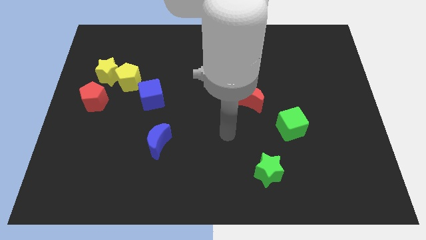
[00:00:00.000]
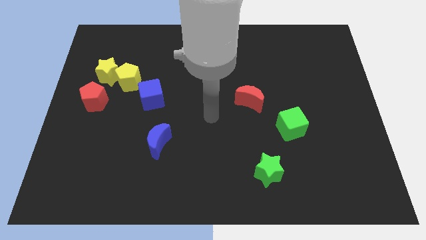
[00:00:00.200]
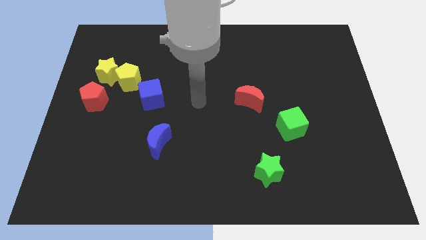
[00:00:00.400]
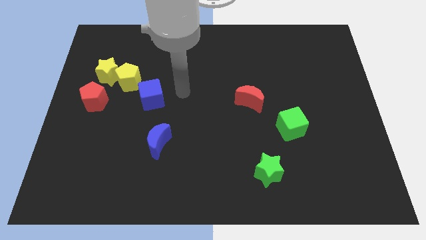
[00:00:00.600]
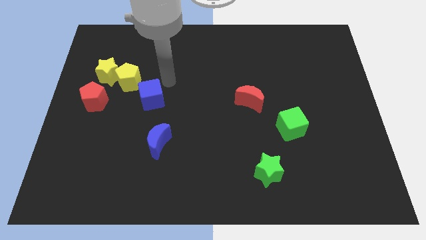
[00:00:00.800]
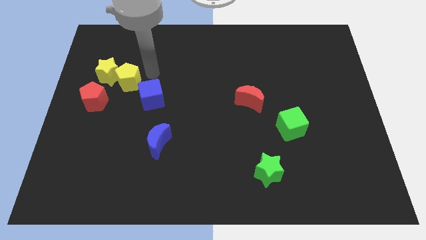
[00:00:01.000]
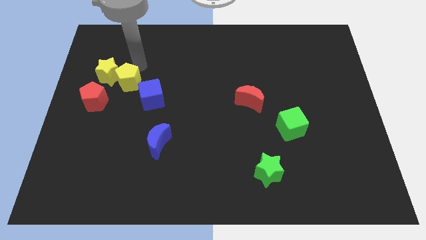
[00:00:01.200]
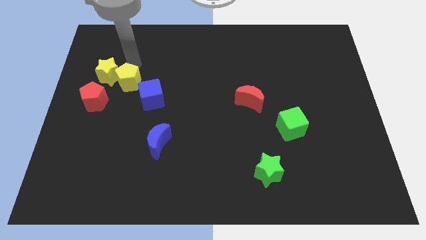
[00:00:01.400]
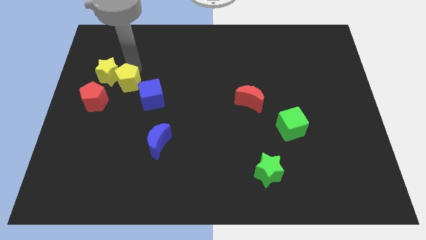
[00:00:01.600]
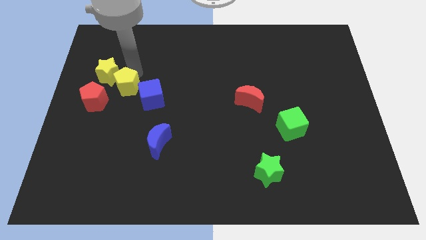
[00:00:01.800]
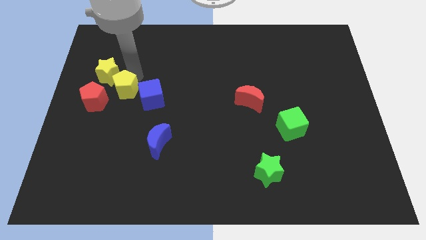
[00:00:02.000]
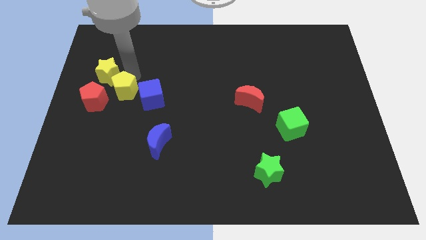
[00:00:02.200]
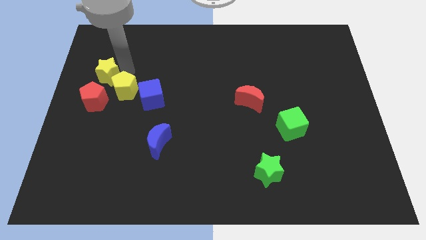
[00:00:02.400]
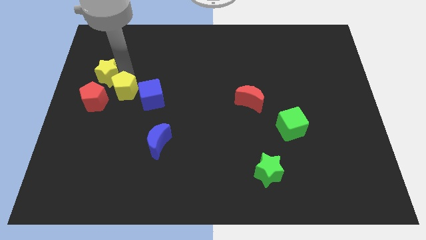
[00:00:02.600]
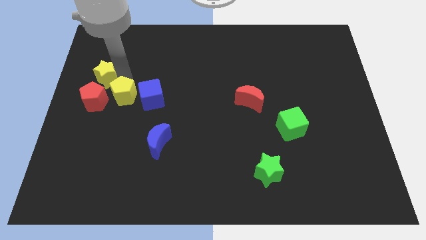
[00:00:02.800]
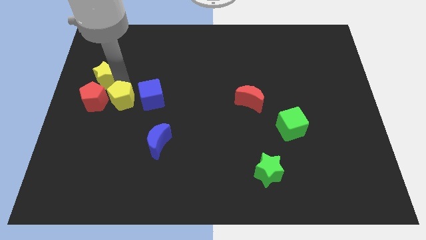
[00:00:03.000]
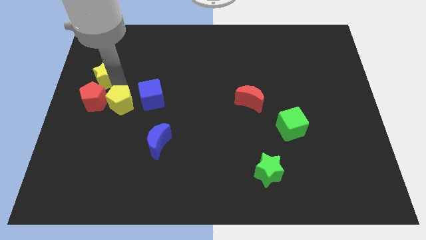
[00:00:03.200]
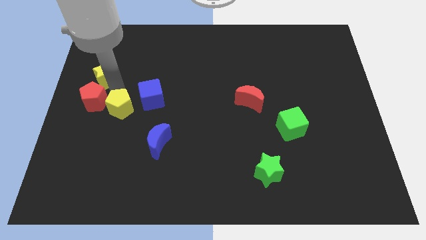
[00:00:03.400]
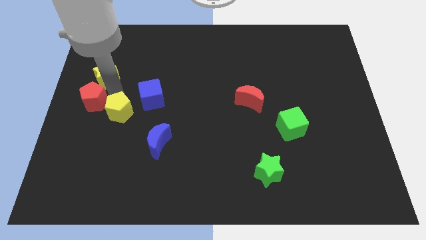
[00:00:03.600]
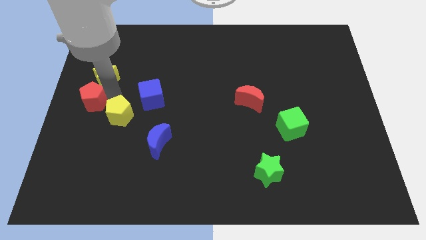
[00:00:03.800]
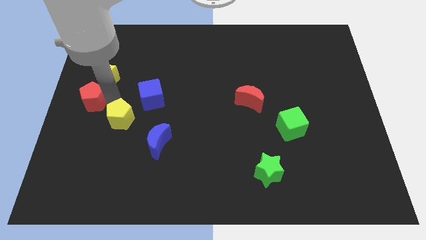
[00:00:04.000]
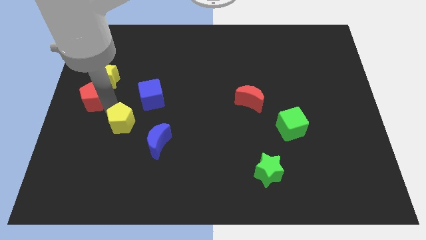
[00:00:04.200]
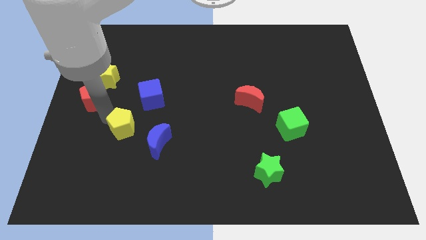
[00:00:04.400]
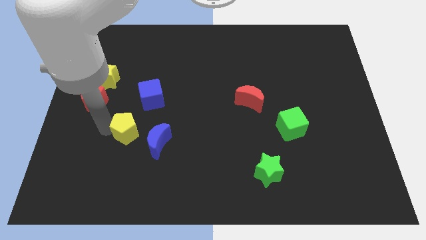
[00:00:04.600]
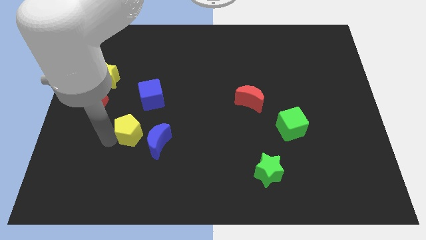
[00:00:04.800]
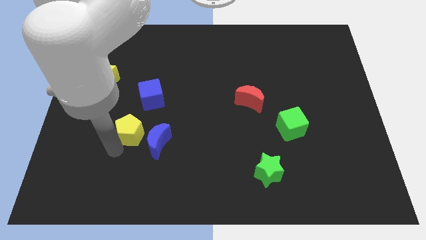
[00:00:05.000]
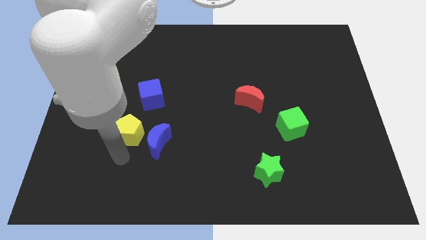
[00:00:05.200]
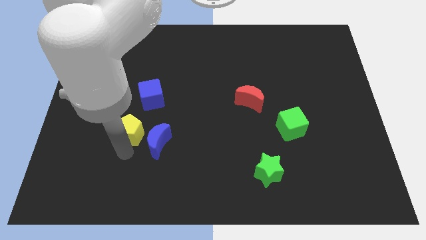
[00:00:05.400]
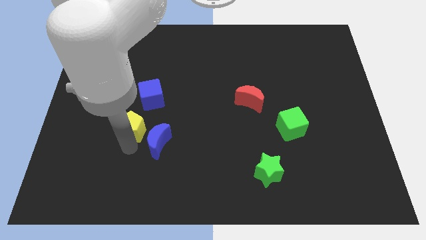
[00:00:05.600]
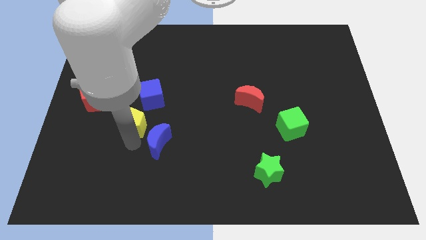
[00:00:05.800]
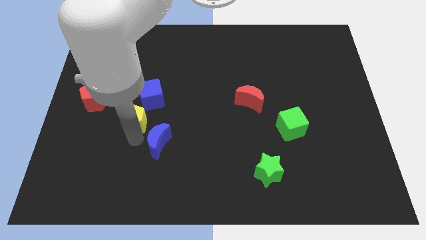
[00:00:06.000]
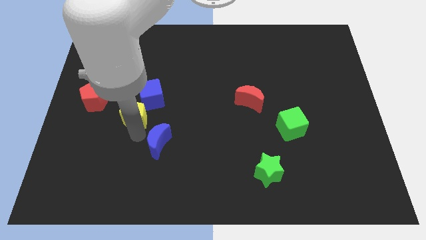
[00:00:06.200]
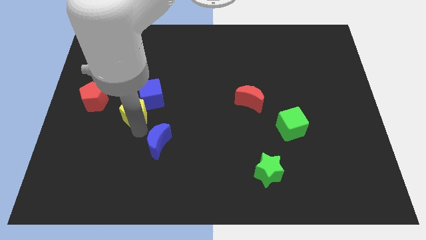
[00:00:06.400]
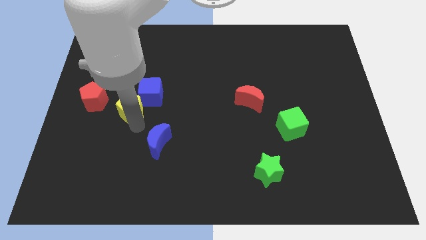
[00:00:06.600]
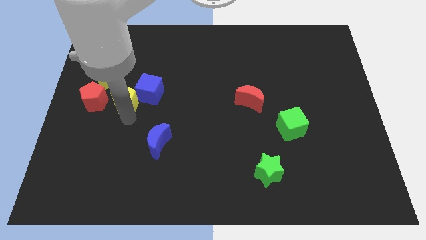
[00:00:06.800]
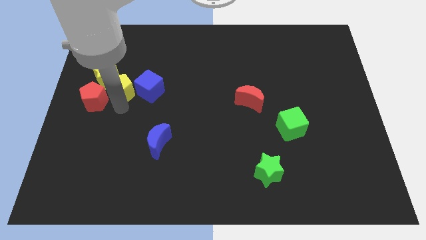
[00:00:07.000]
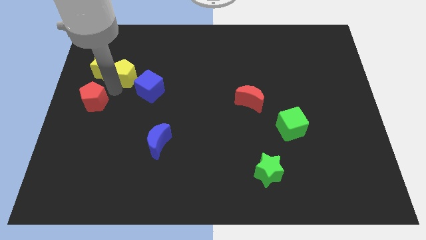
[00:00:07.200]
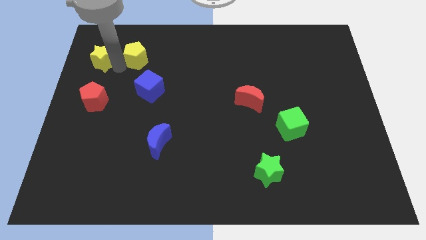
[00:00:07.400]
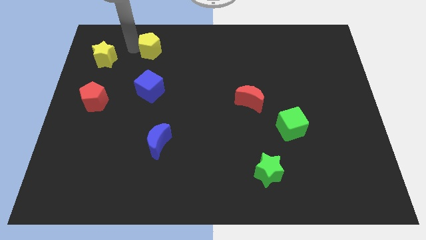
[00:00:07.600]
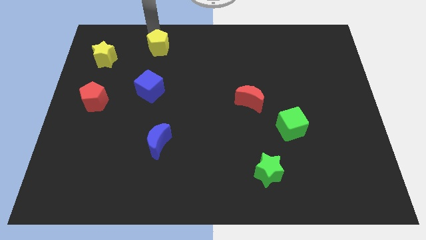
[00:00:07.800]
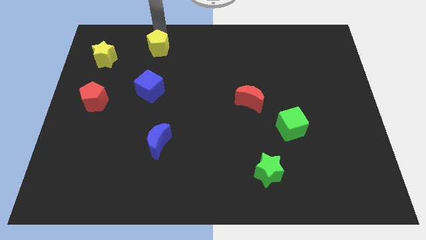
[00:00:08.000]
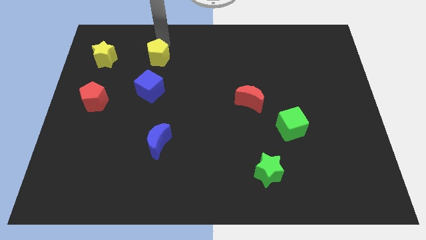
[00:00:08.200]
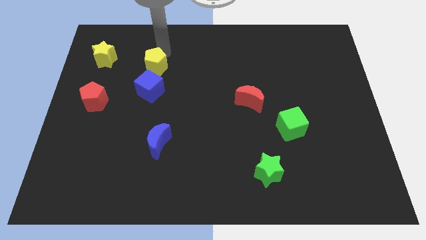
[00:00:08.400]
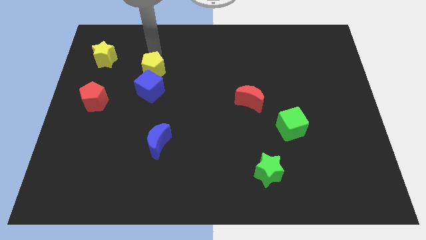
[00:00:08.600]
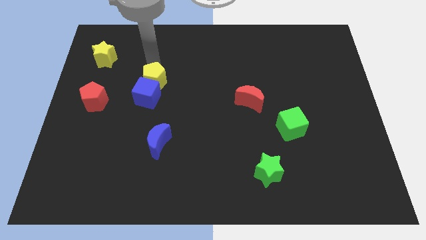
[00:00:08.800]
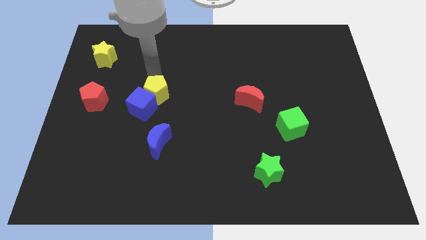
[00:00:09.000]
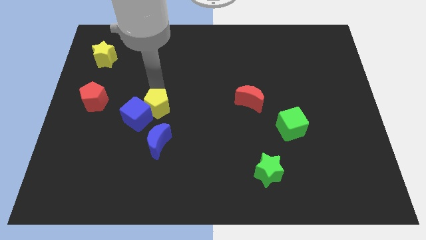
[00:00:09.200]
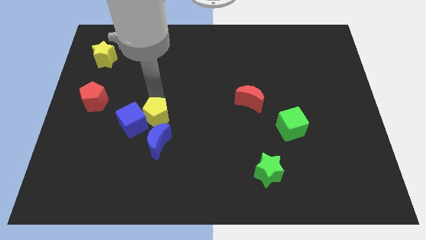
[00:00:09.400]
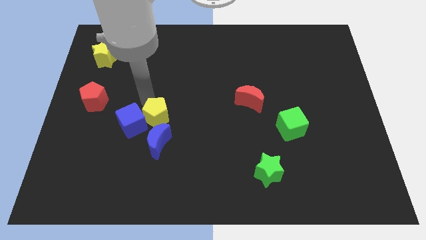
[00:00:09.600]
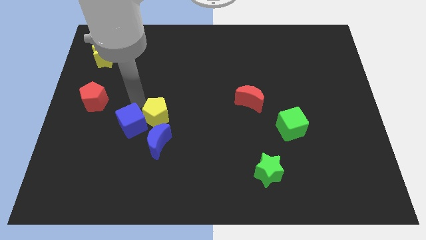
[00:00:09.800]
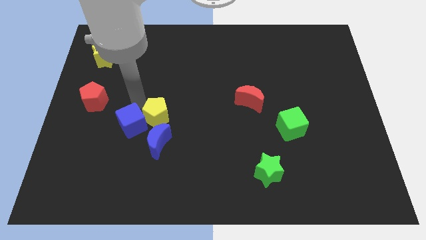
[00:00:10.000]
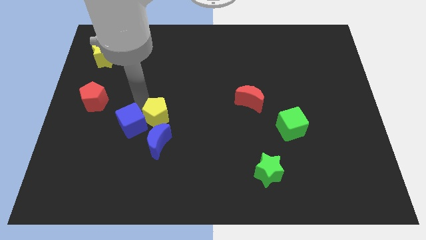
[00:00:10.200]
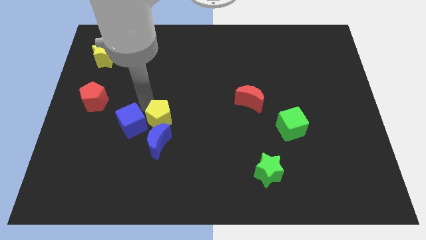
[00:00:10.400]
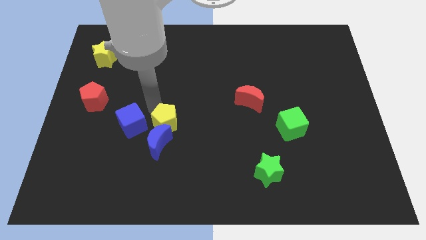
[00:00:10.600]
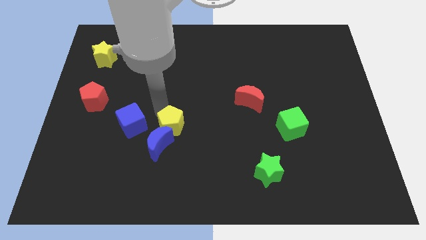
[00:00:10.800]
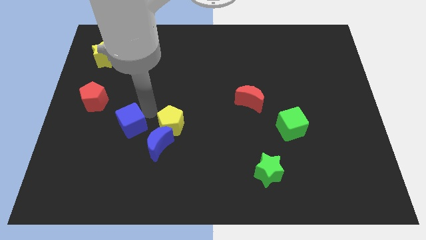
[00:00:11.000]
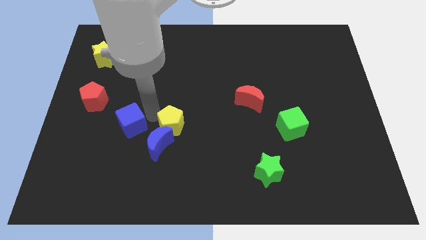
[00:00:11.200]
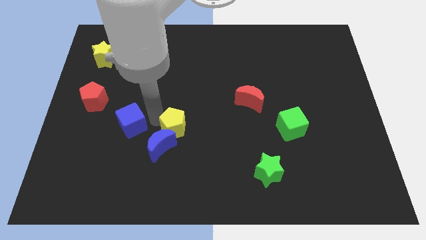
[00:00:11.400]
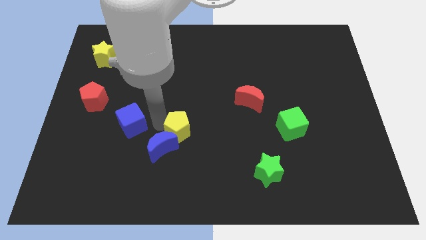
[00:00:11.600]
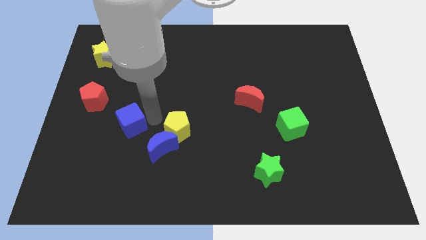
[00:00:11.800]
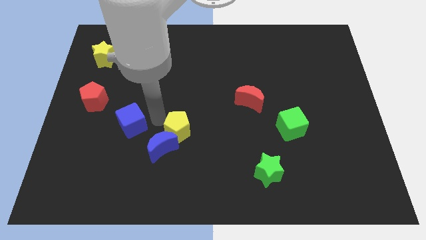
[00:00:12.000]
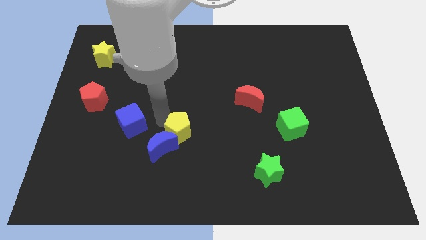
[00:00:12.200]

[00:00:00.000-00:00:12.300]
push the yellow pentagon down and right diagonally

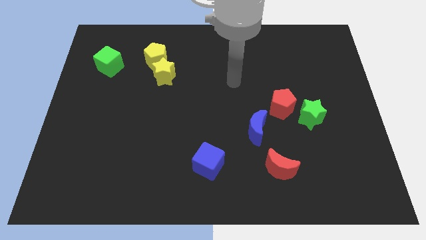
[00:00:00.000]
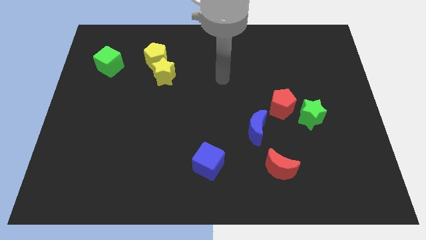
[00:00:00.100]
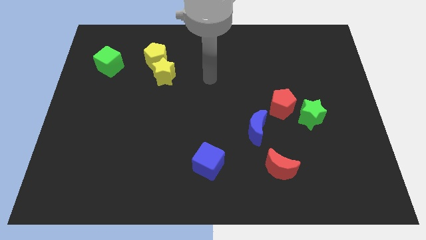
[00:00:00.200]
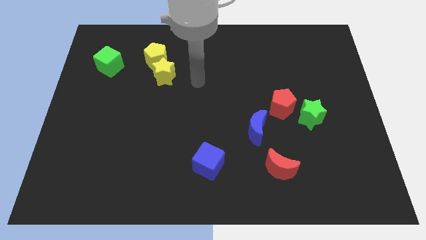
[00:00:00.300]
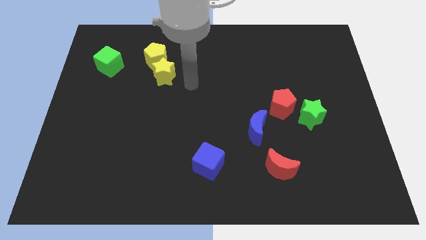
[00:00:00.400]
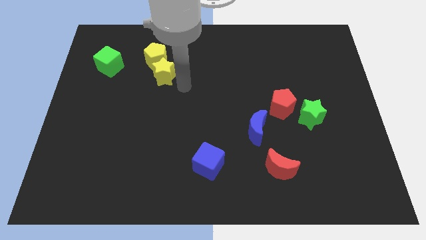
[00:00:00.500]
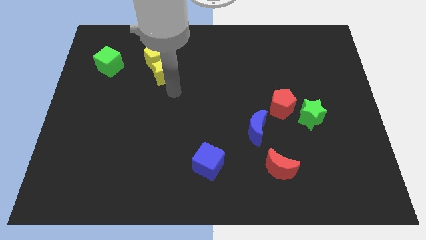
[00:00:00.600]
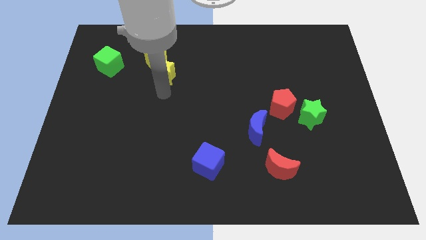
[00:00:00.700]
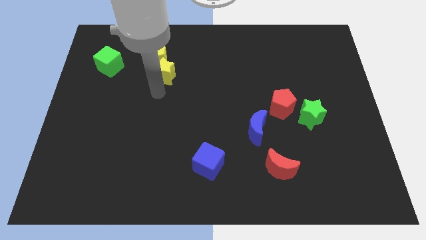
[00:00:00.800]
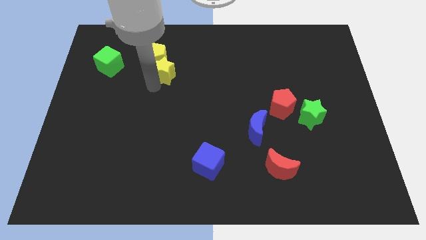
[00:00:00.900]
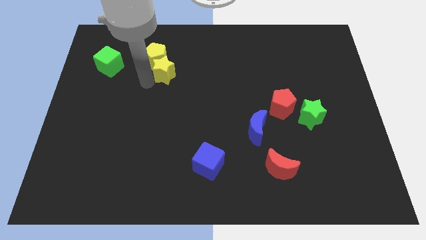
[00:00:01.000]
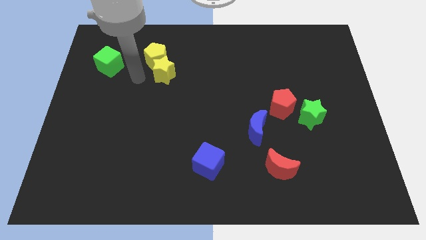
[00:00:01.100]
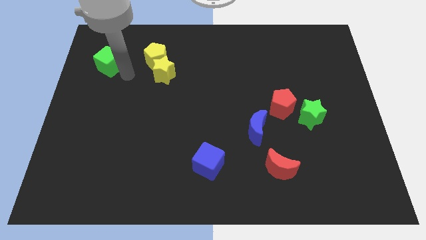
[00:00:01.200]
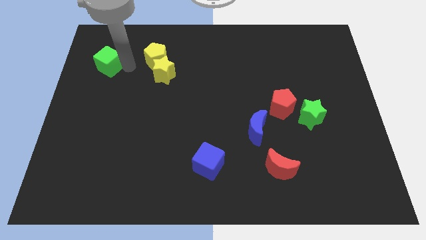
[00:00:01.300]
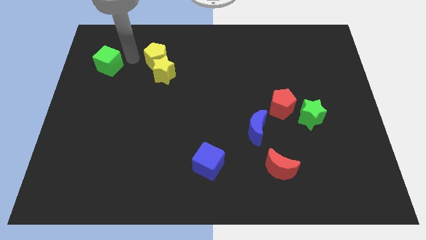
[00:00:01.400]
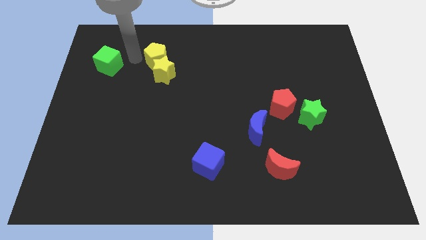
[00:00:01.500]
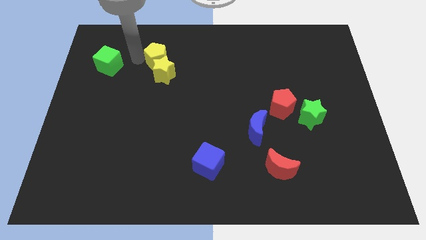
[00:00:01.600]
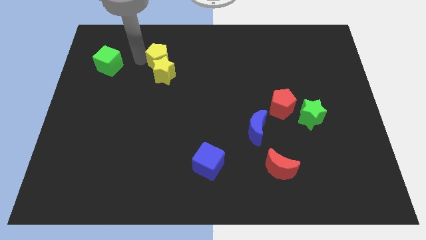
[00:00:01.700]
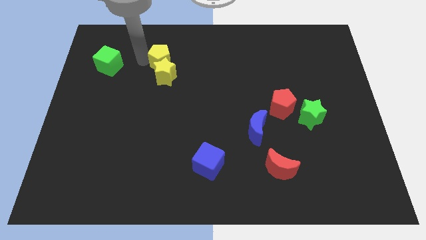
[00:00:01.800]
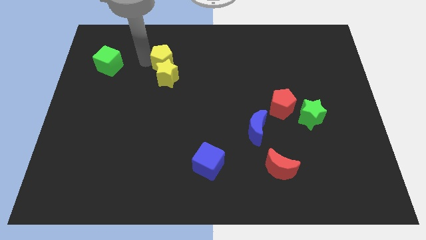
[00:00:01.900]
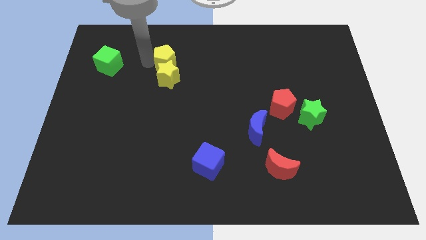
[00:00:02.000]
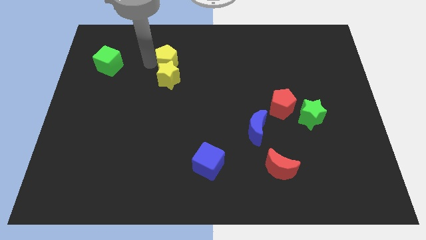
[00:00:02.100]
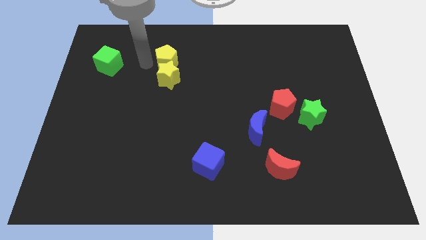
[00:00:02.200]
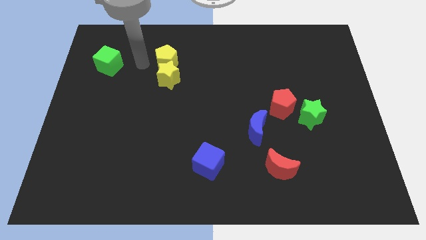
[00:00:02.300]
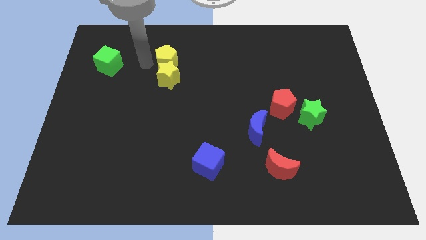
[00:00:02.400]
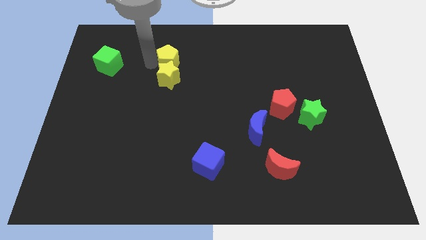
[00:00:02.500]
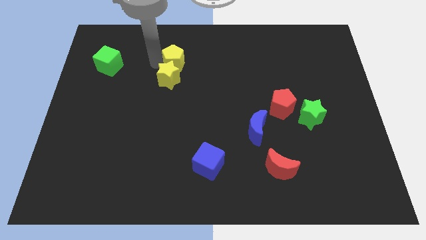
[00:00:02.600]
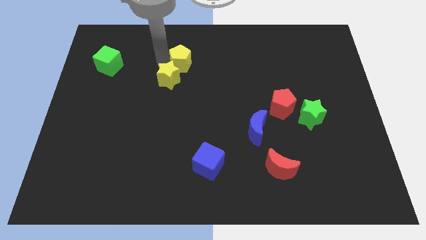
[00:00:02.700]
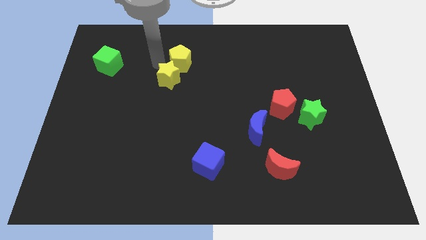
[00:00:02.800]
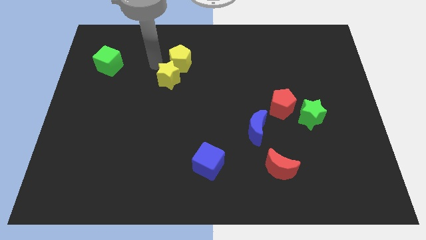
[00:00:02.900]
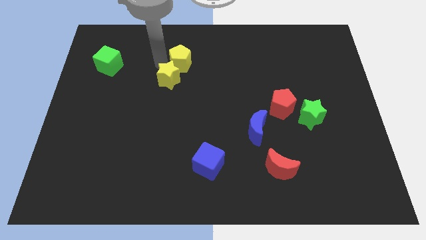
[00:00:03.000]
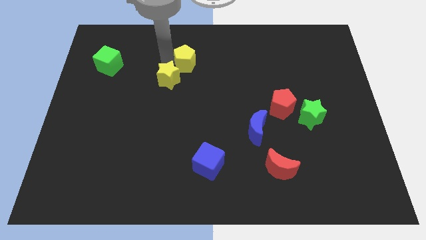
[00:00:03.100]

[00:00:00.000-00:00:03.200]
slightly move the yellow pentagon right
